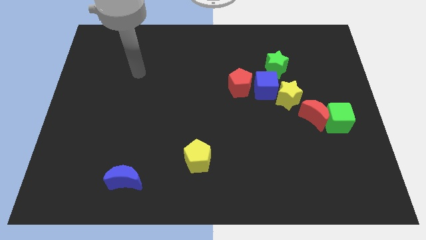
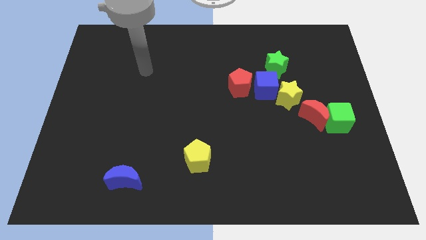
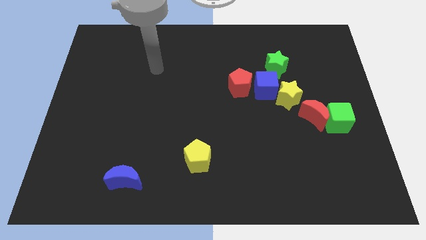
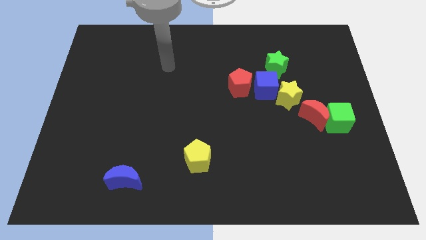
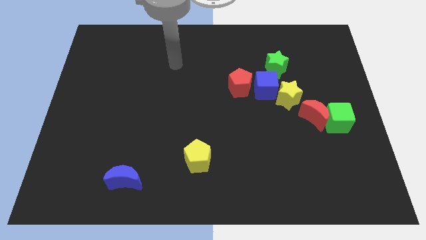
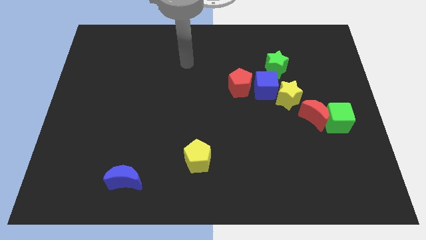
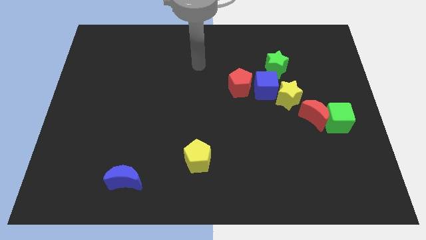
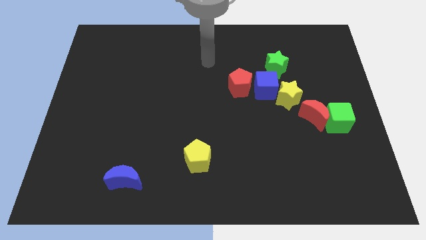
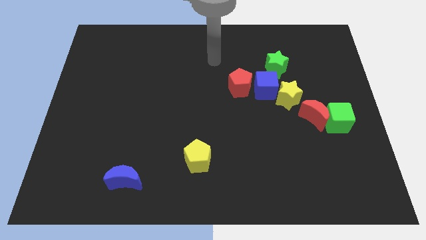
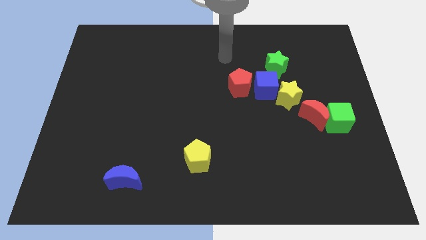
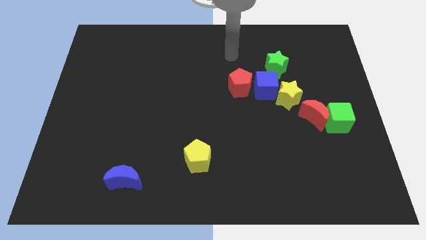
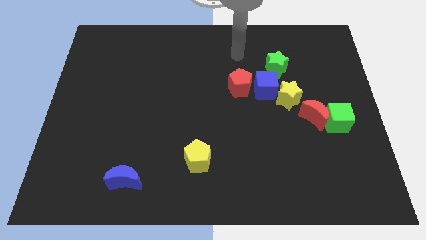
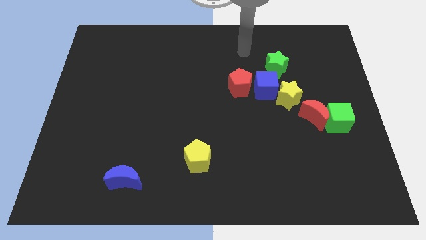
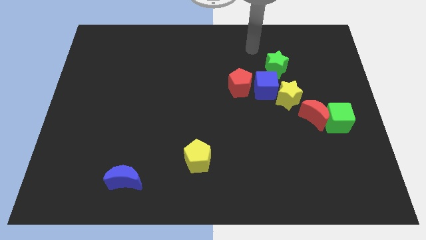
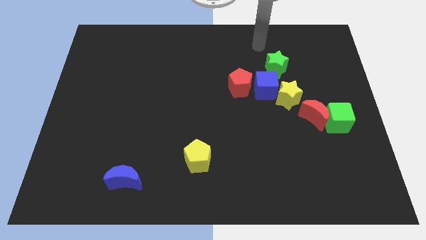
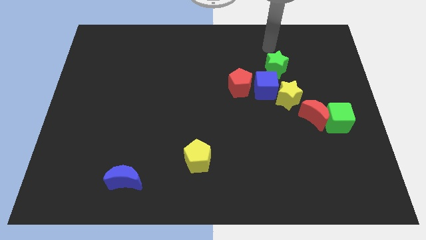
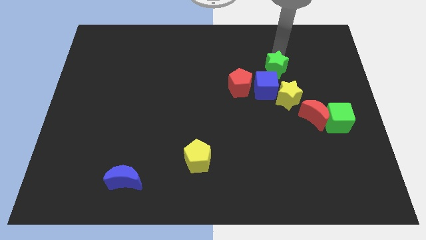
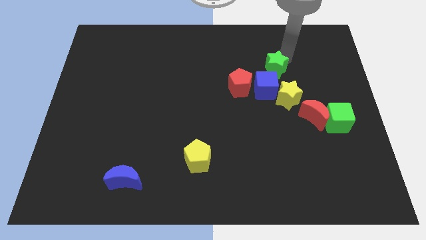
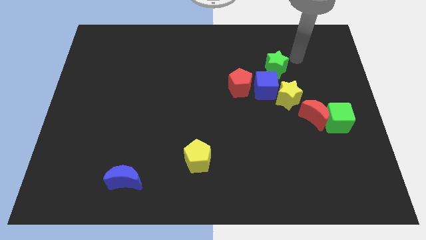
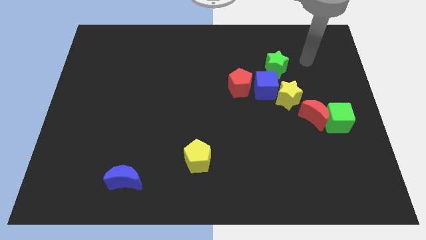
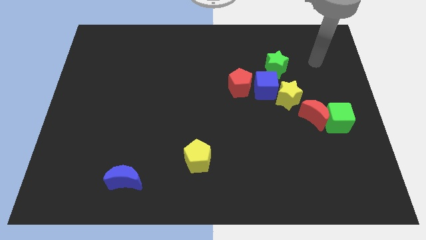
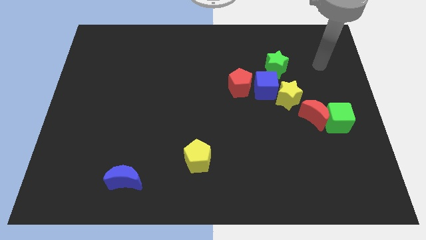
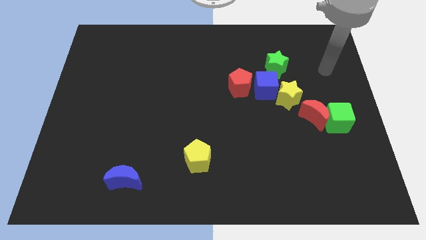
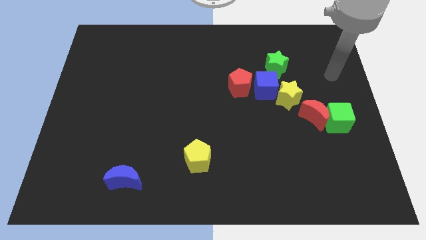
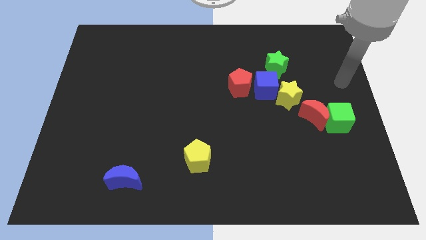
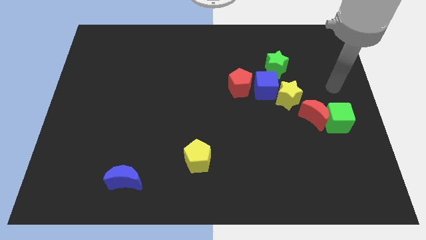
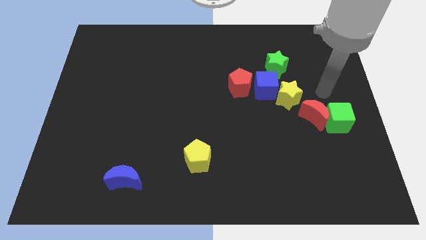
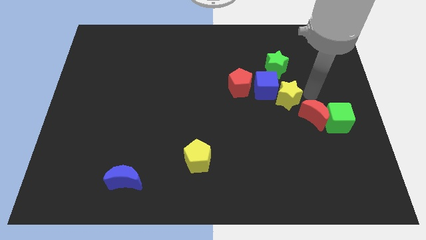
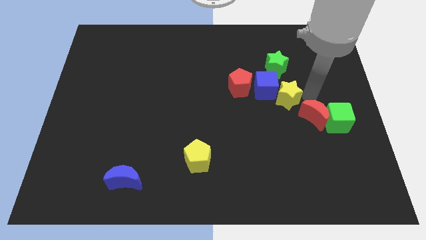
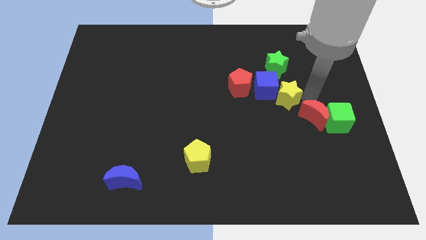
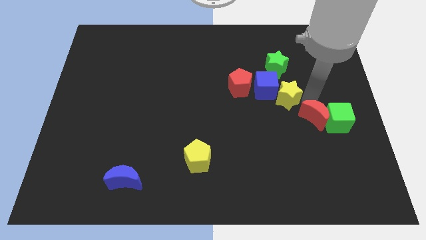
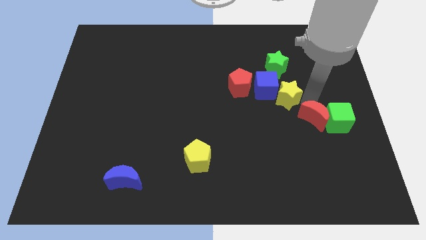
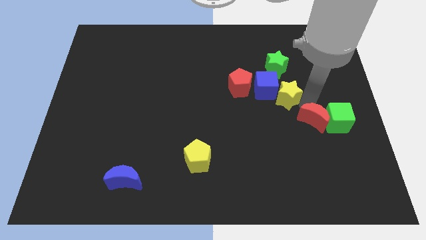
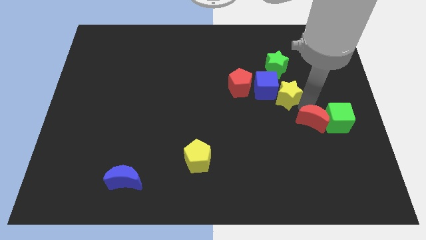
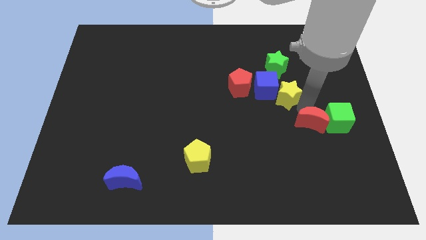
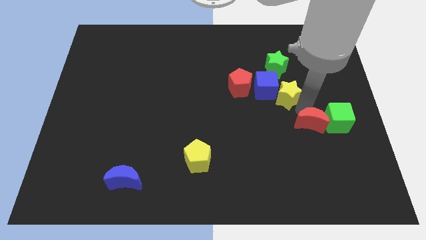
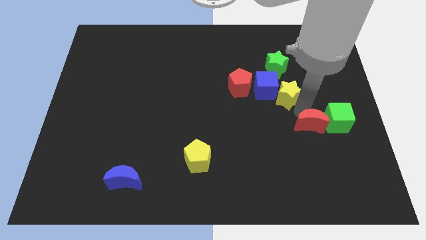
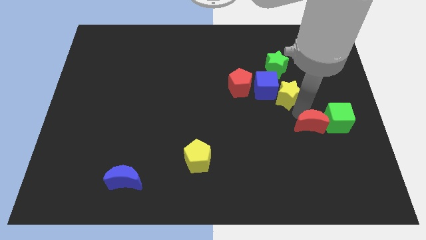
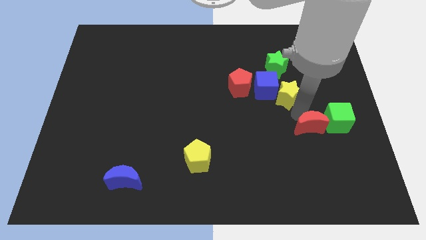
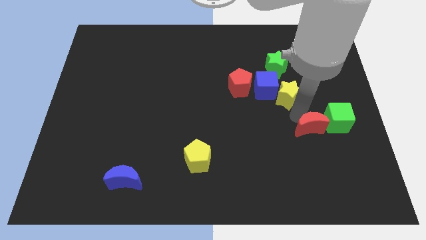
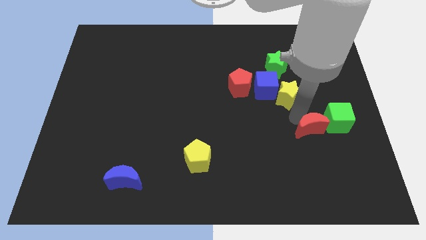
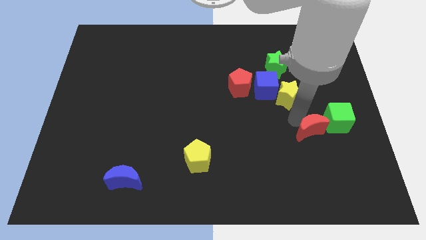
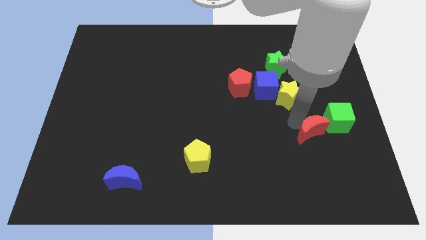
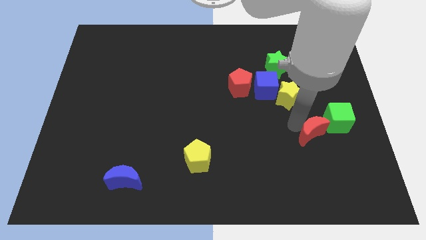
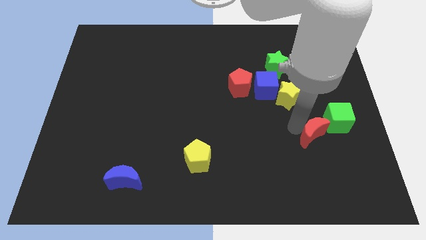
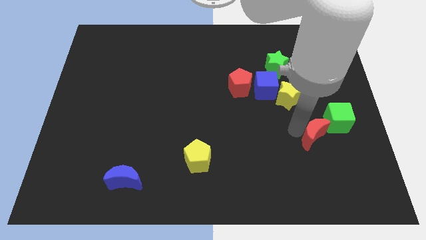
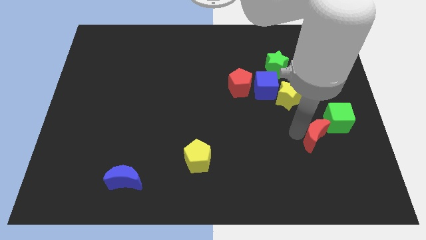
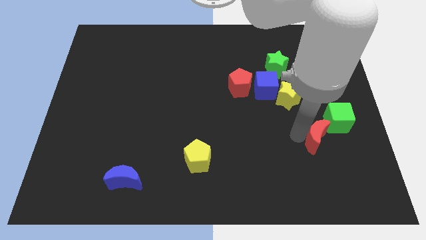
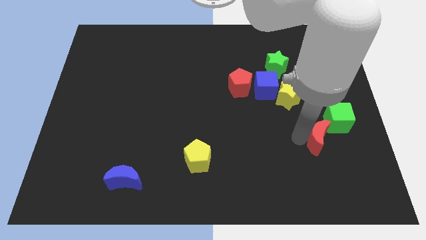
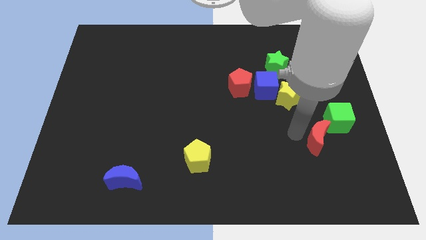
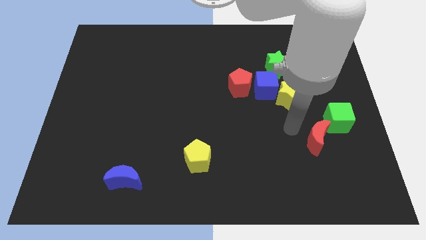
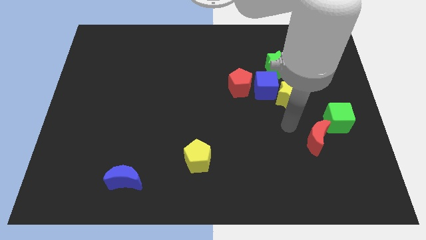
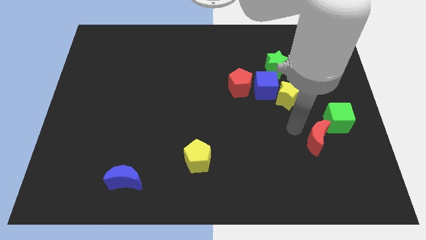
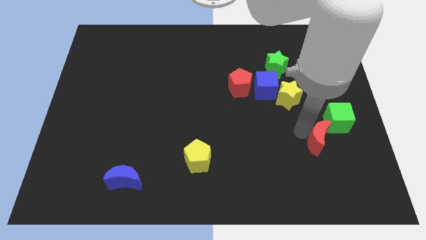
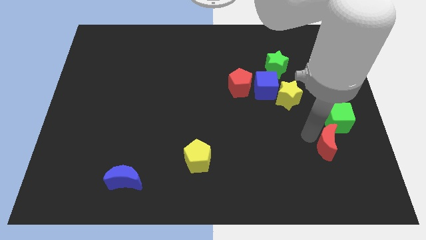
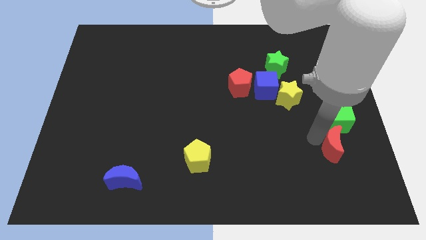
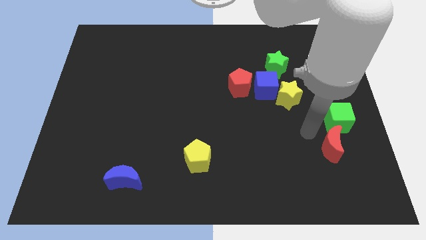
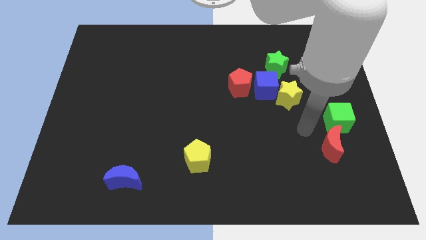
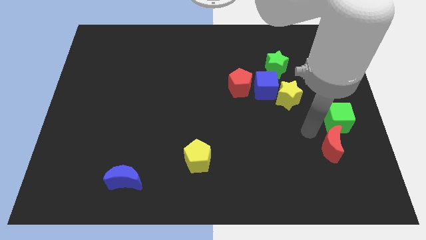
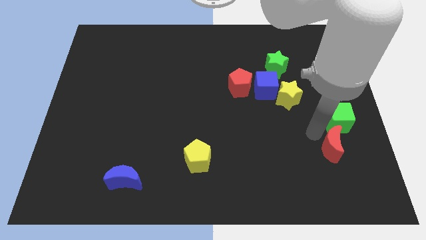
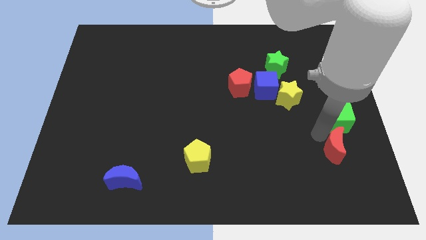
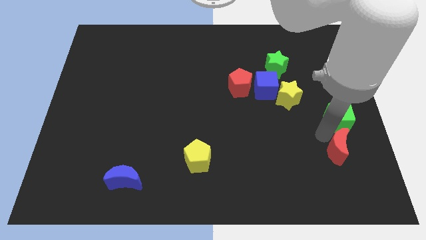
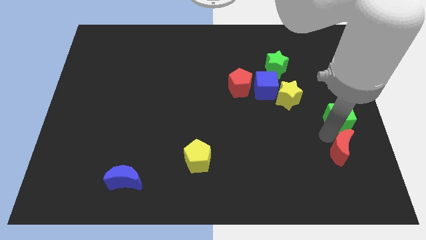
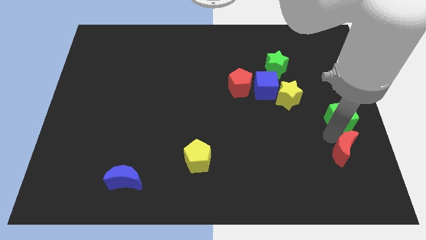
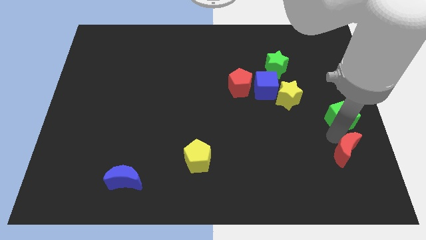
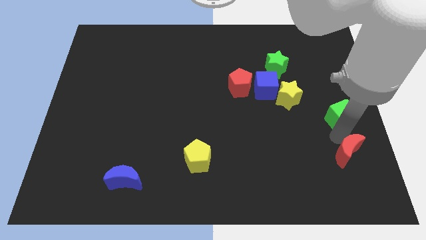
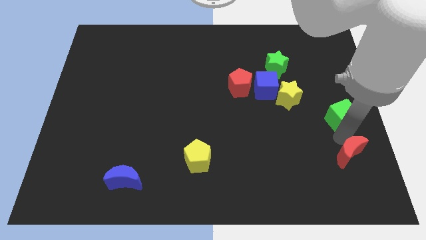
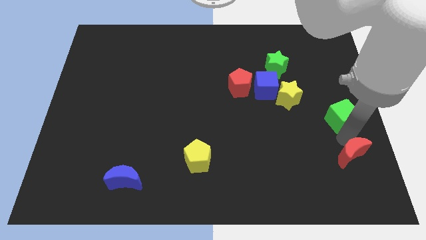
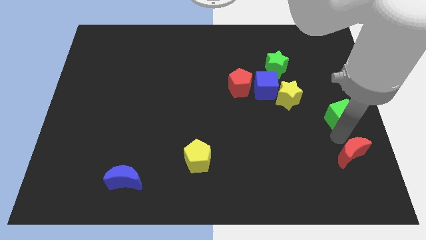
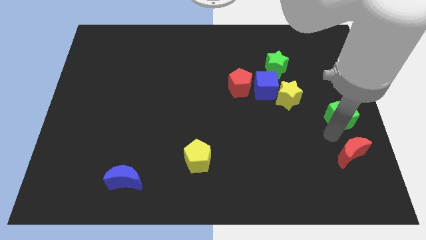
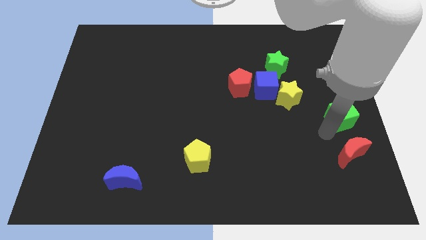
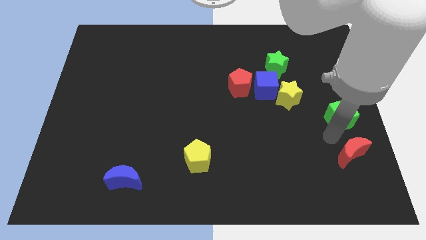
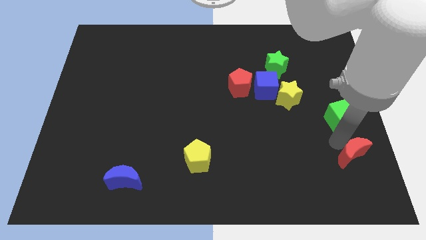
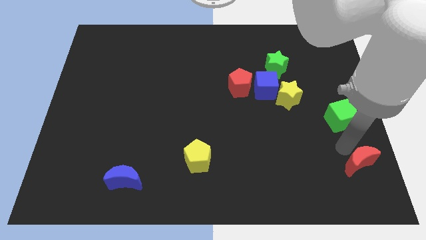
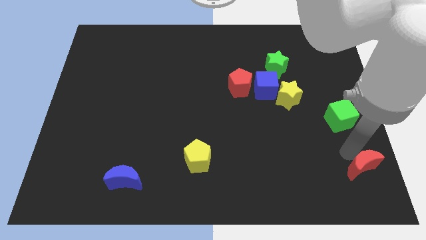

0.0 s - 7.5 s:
slide the red moon to the lower right corner
